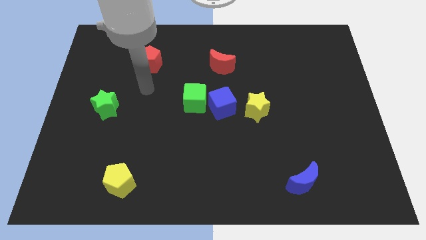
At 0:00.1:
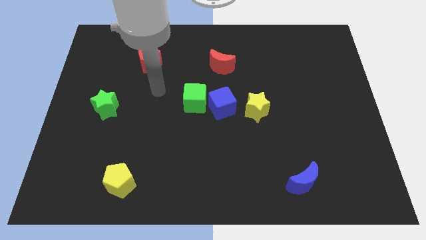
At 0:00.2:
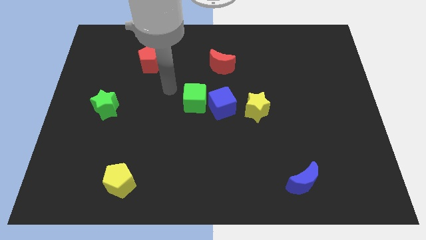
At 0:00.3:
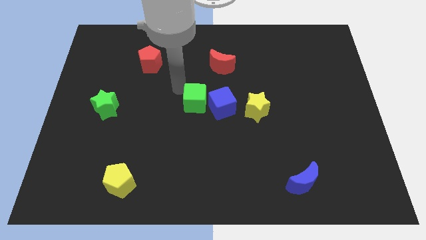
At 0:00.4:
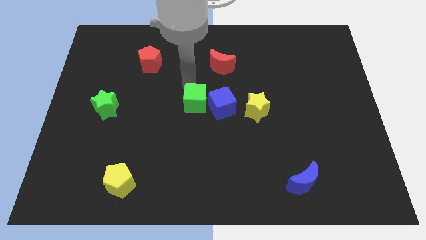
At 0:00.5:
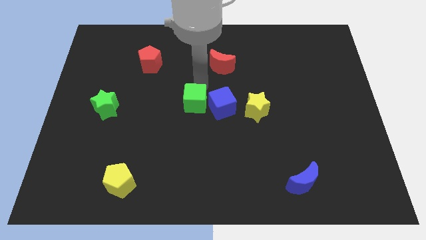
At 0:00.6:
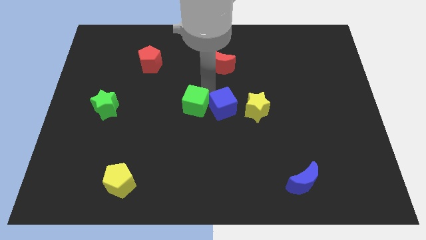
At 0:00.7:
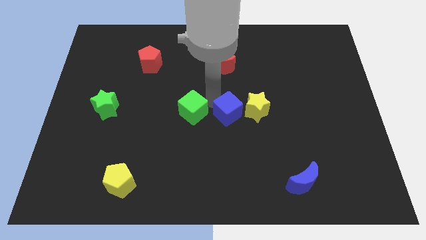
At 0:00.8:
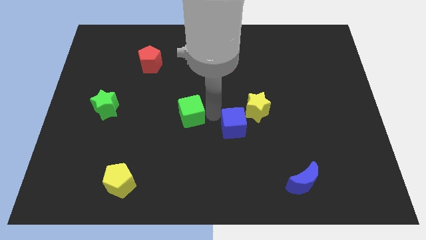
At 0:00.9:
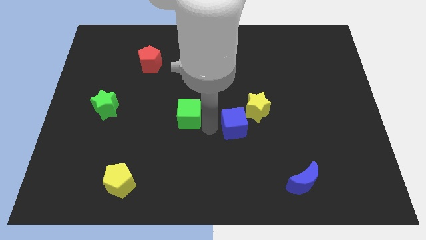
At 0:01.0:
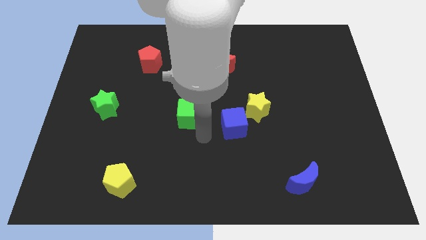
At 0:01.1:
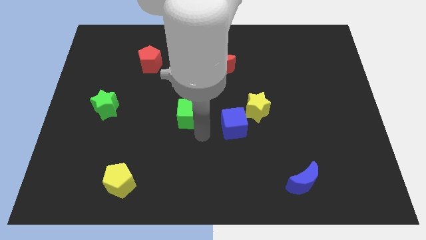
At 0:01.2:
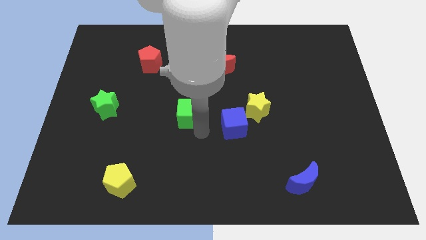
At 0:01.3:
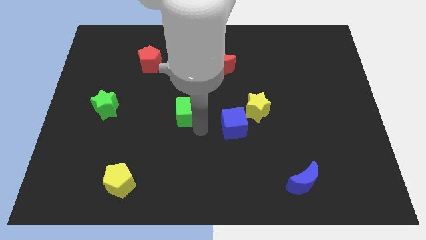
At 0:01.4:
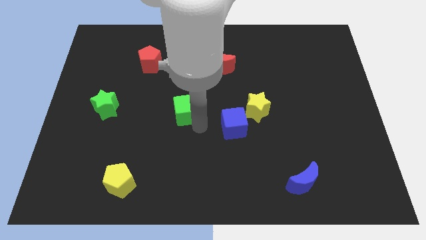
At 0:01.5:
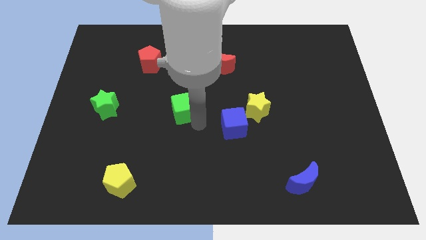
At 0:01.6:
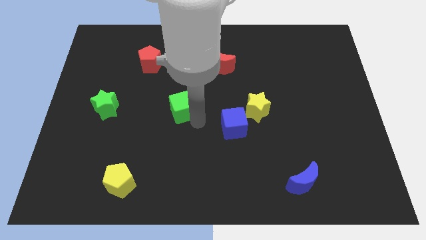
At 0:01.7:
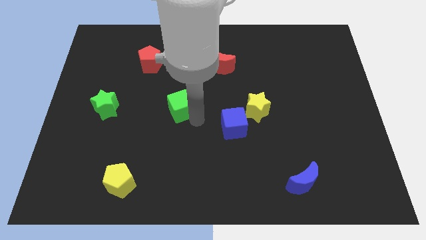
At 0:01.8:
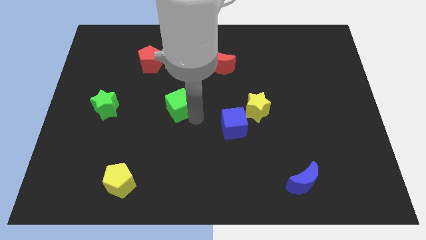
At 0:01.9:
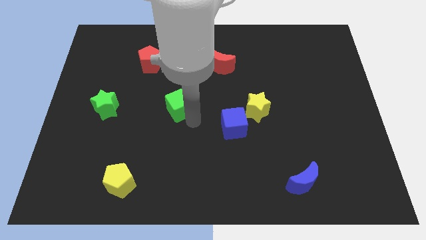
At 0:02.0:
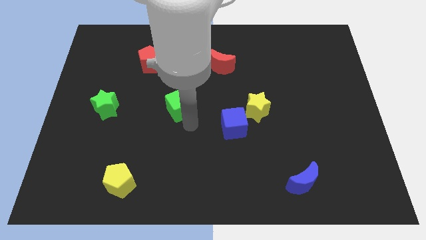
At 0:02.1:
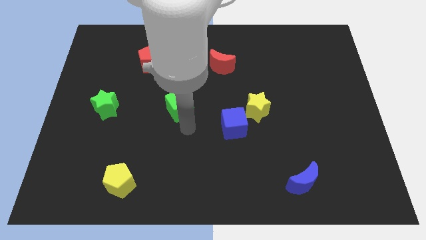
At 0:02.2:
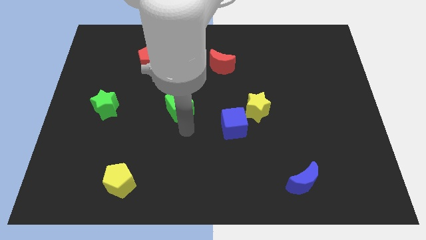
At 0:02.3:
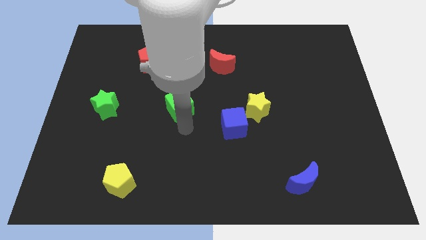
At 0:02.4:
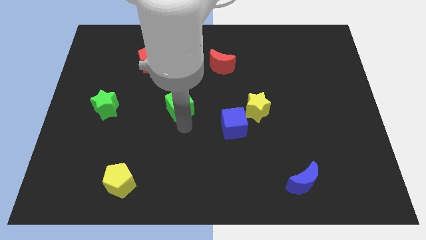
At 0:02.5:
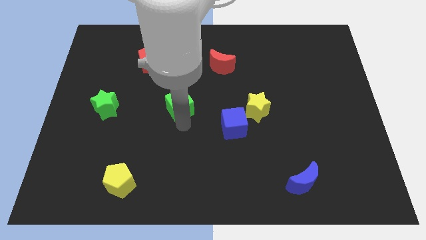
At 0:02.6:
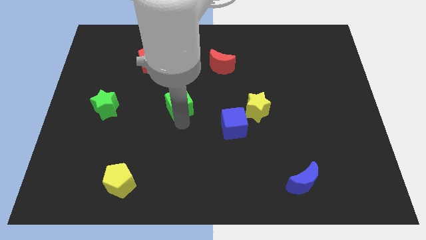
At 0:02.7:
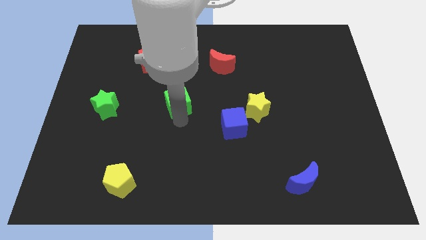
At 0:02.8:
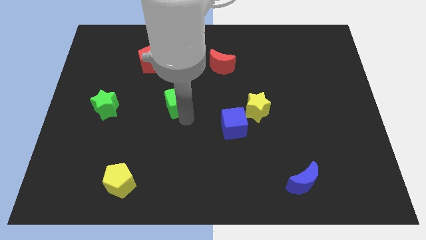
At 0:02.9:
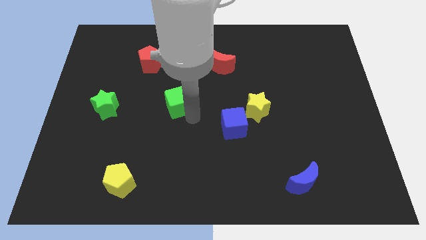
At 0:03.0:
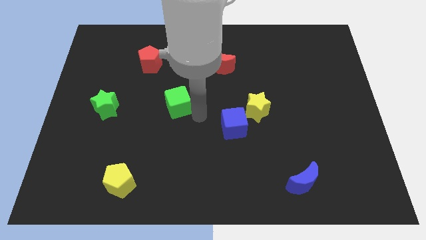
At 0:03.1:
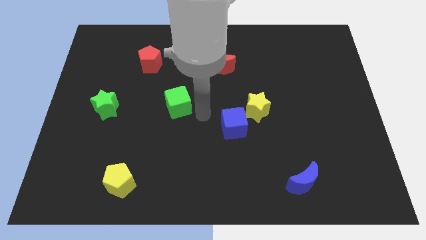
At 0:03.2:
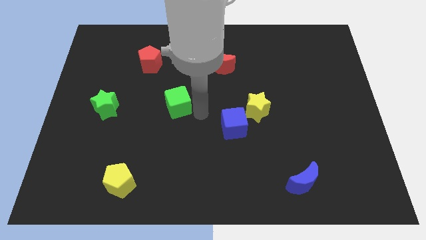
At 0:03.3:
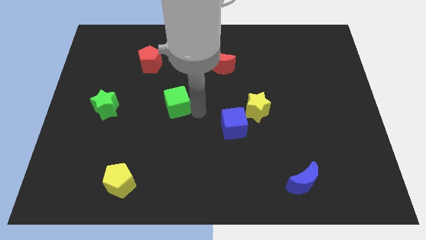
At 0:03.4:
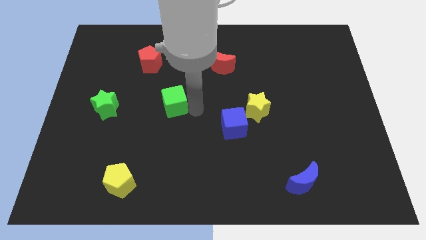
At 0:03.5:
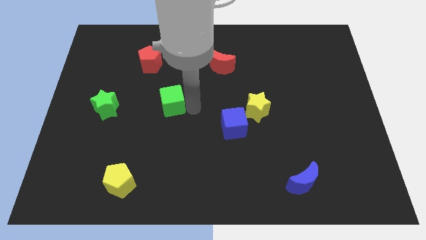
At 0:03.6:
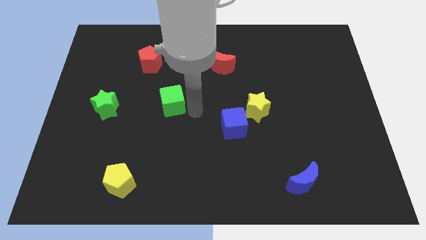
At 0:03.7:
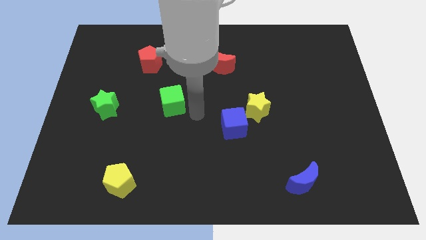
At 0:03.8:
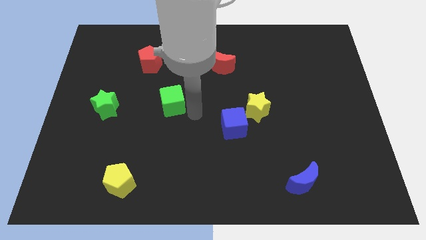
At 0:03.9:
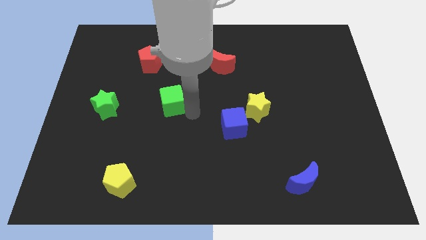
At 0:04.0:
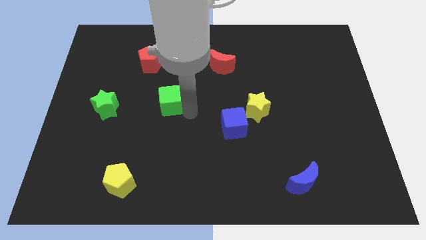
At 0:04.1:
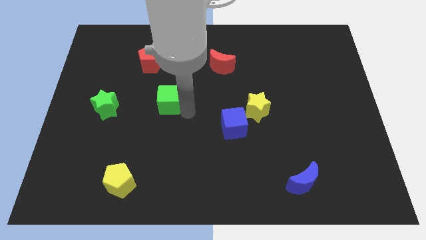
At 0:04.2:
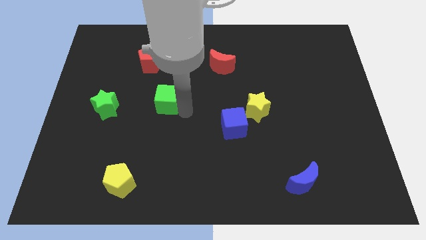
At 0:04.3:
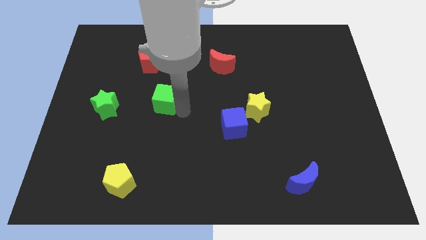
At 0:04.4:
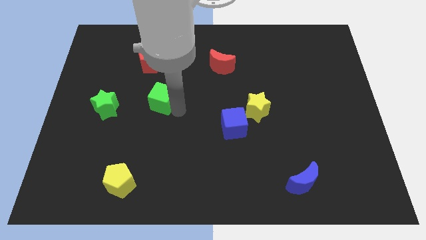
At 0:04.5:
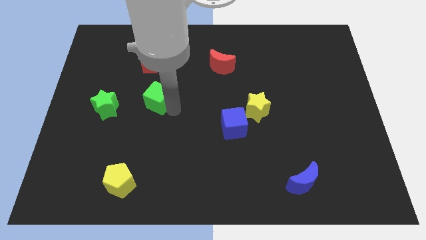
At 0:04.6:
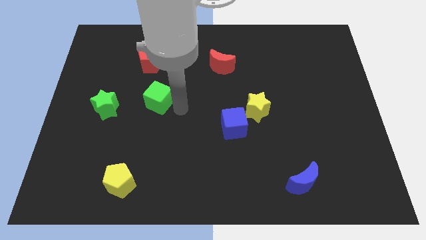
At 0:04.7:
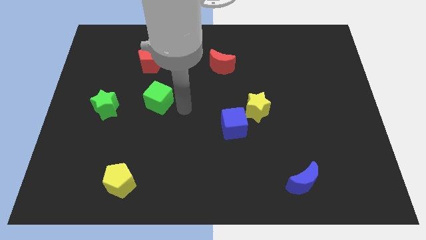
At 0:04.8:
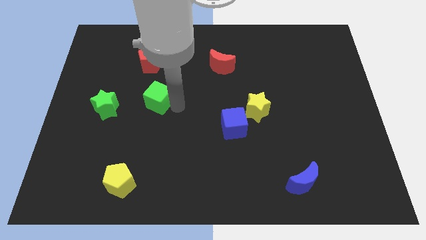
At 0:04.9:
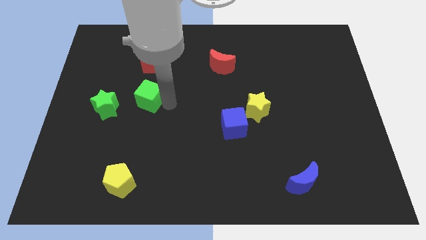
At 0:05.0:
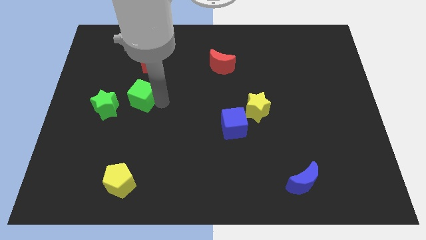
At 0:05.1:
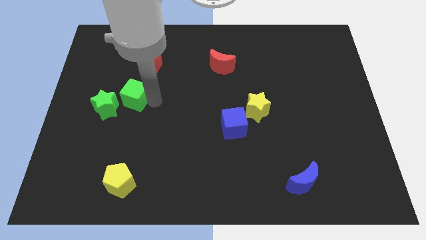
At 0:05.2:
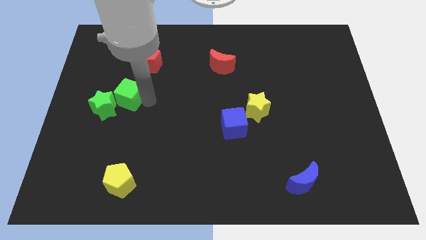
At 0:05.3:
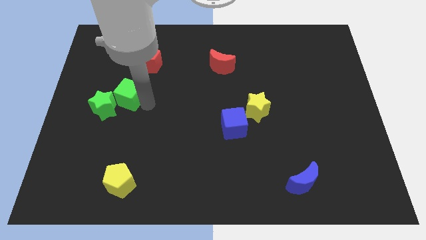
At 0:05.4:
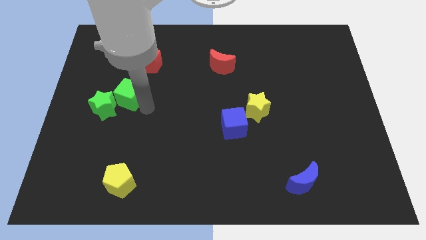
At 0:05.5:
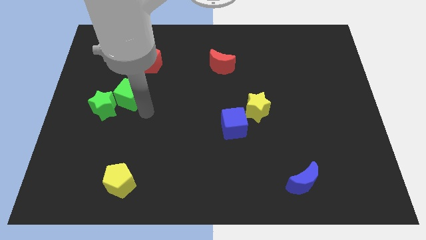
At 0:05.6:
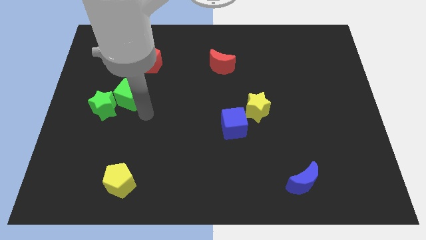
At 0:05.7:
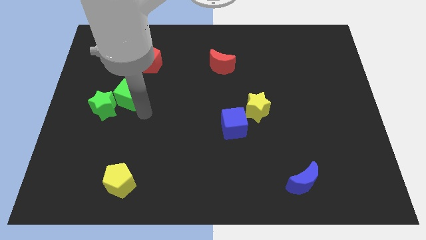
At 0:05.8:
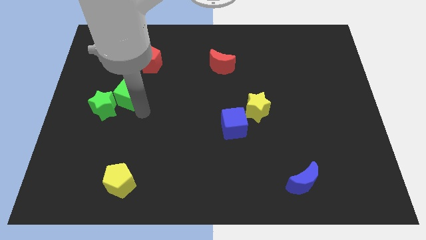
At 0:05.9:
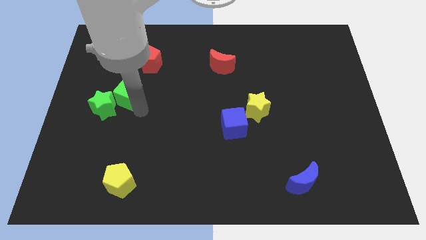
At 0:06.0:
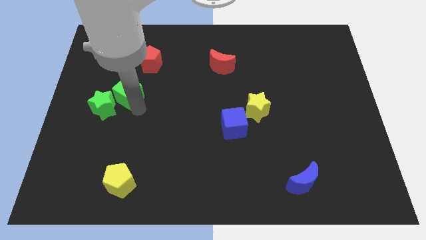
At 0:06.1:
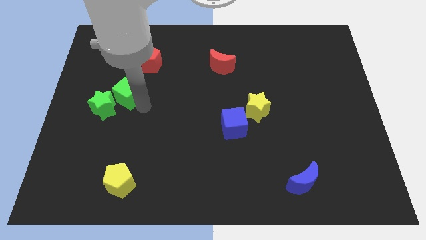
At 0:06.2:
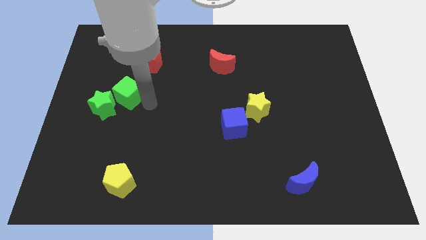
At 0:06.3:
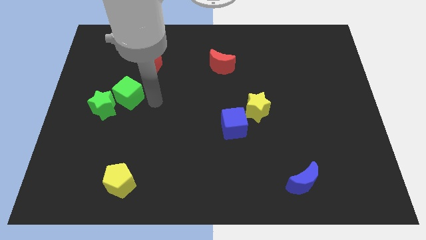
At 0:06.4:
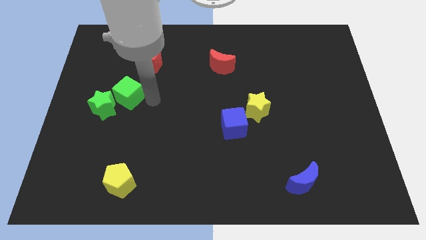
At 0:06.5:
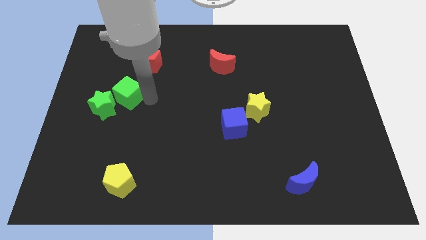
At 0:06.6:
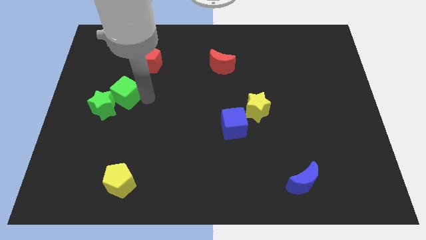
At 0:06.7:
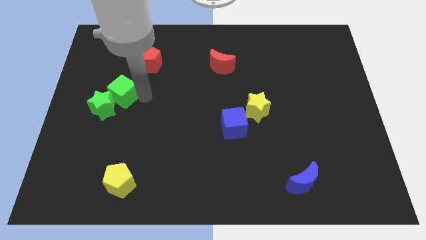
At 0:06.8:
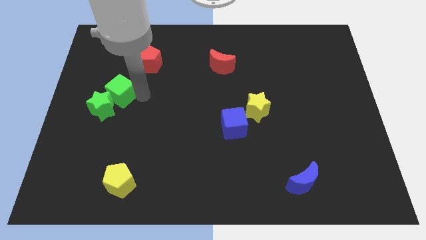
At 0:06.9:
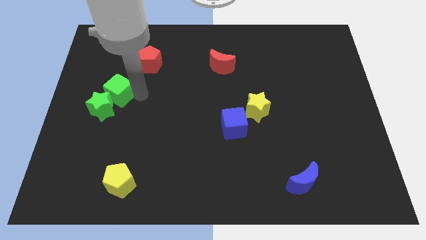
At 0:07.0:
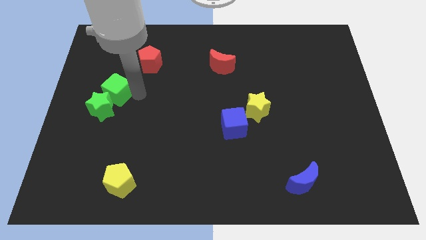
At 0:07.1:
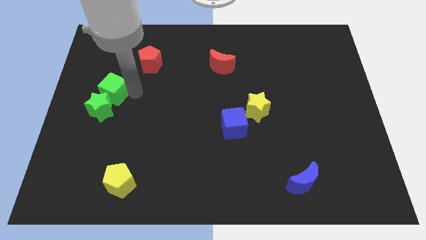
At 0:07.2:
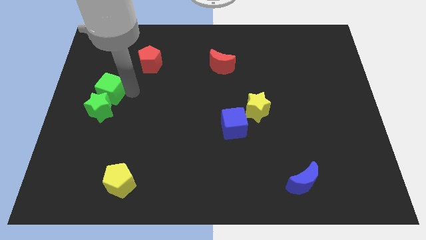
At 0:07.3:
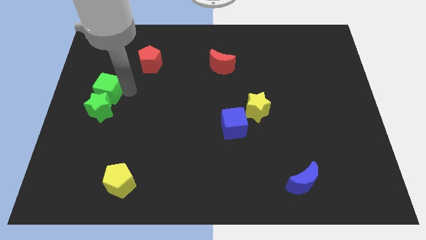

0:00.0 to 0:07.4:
move the green cube to the left side of the board
